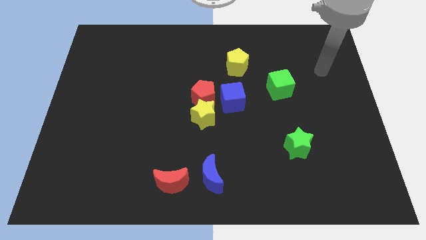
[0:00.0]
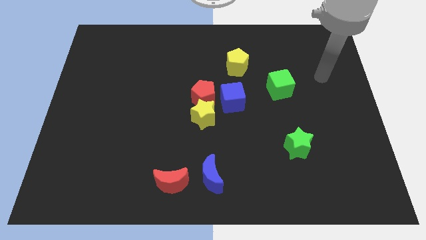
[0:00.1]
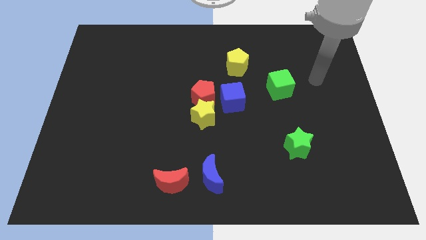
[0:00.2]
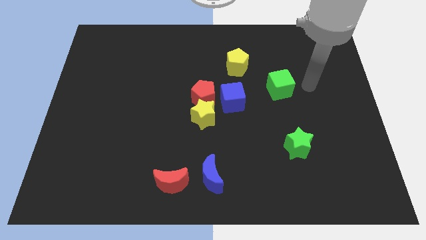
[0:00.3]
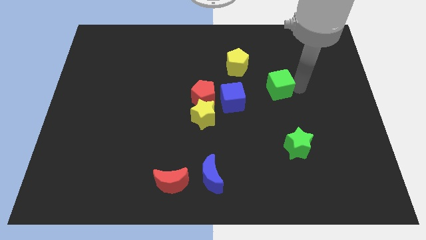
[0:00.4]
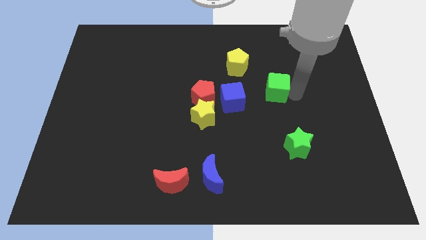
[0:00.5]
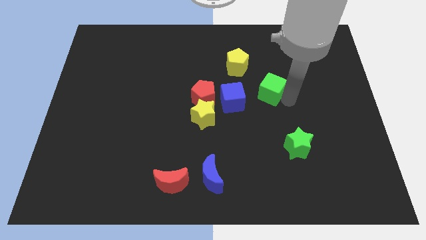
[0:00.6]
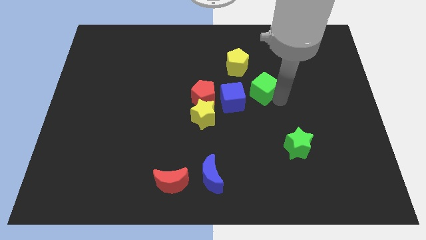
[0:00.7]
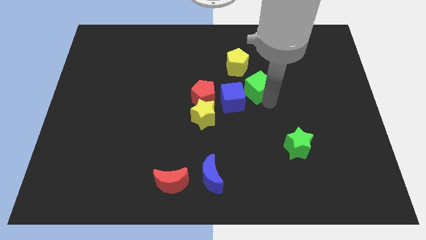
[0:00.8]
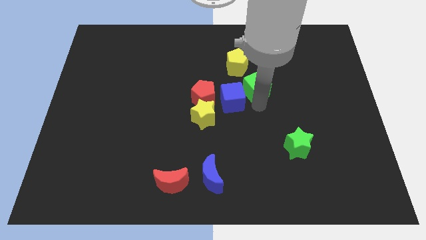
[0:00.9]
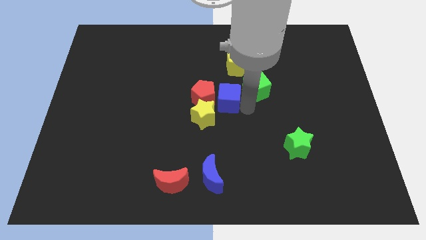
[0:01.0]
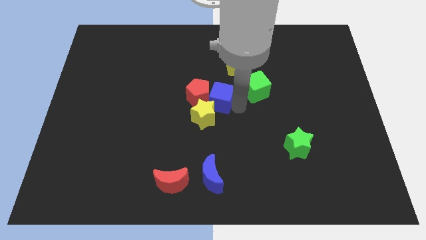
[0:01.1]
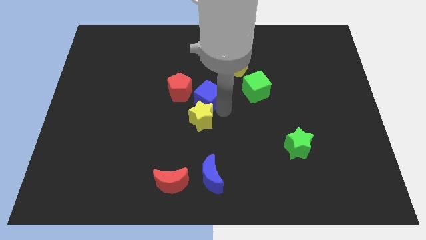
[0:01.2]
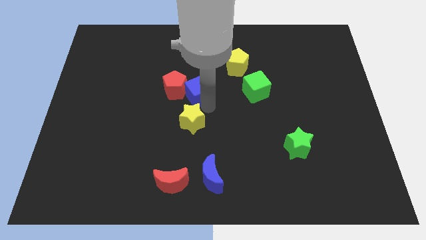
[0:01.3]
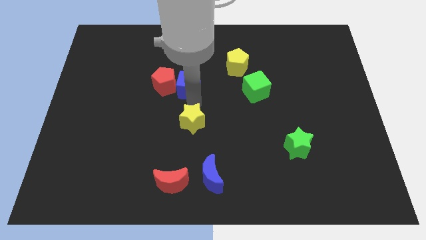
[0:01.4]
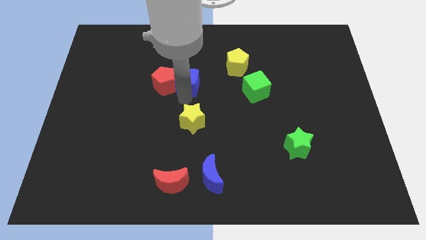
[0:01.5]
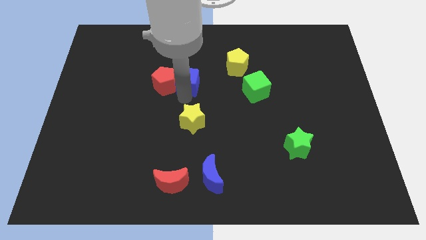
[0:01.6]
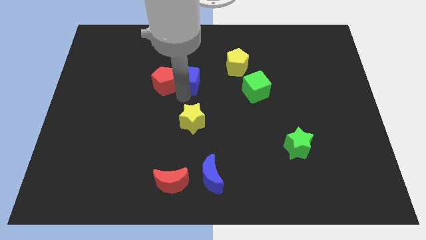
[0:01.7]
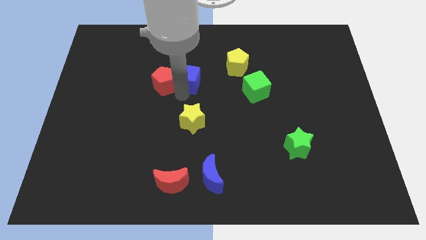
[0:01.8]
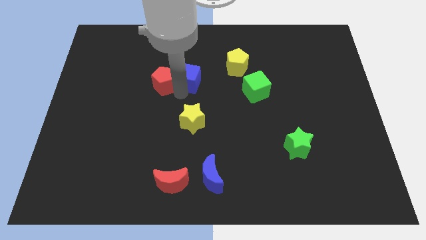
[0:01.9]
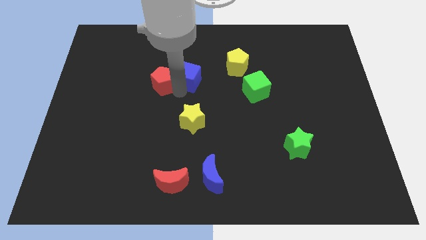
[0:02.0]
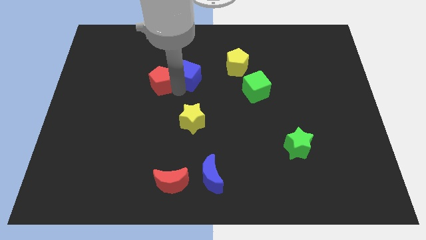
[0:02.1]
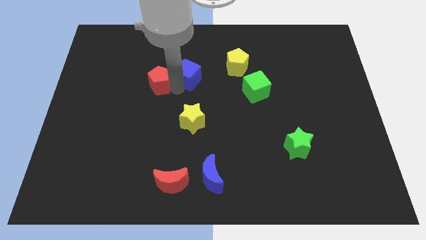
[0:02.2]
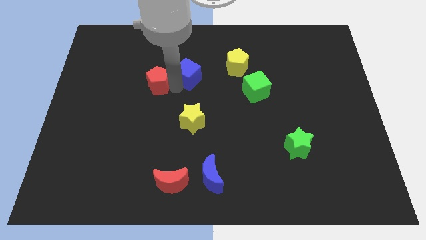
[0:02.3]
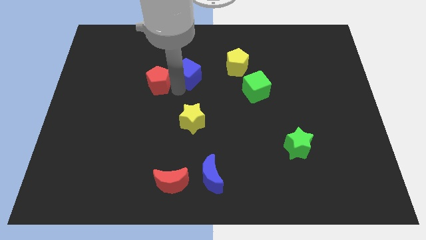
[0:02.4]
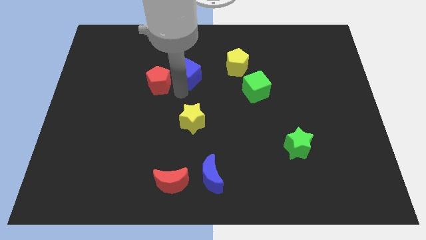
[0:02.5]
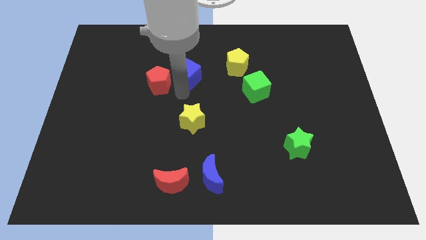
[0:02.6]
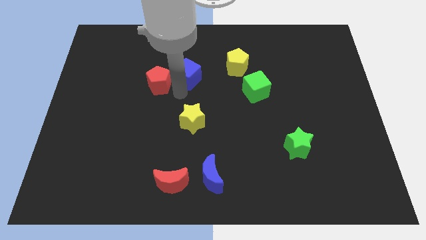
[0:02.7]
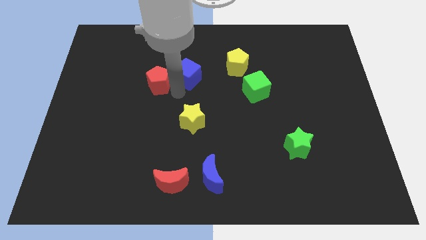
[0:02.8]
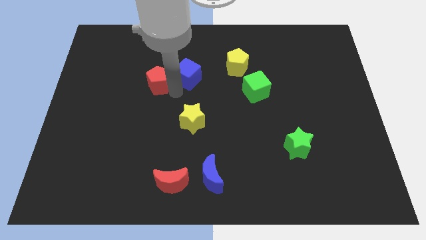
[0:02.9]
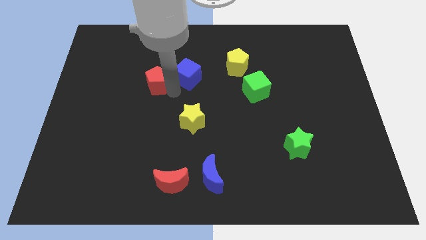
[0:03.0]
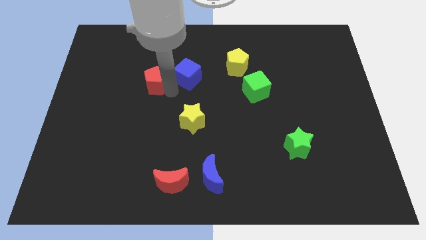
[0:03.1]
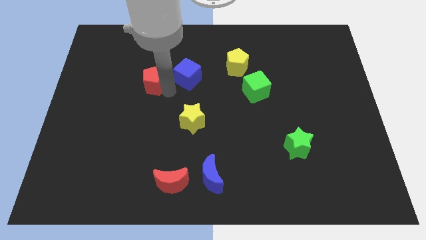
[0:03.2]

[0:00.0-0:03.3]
move the red pentagon away from the yellow star and blue cube

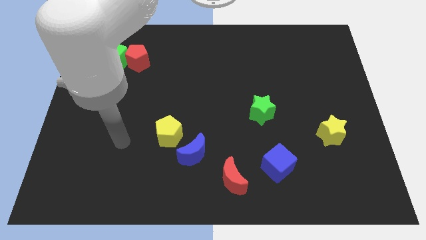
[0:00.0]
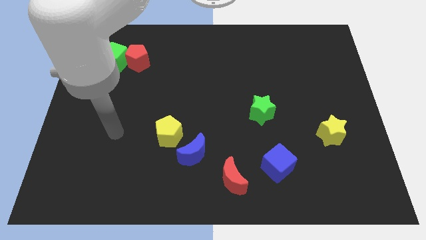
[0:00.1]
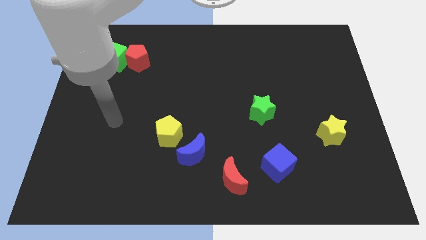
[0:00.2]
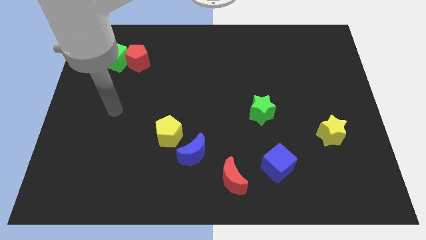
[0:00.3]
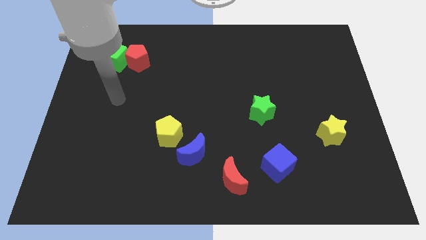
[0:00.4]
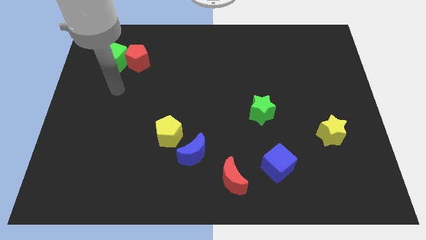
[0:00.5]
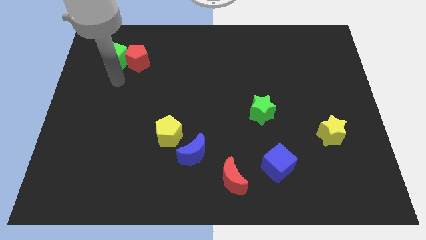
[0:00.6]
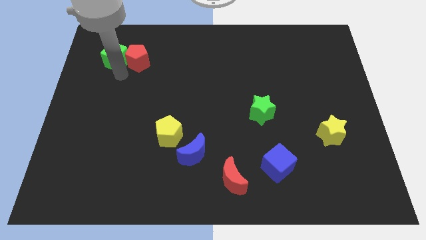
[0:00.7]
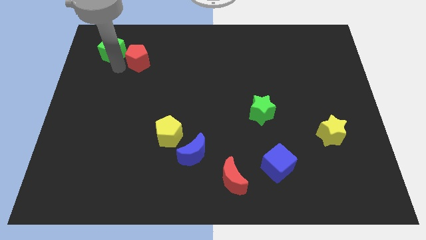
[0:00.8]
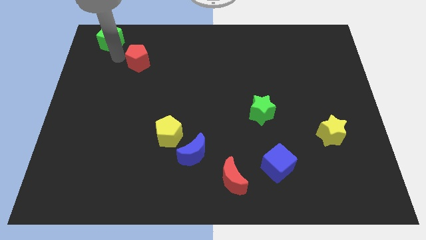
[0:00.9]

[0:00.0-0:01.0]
pull the red pentagon apart from the green cube

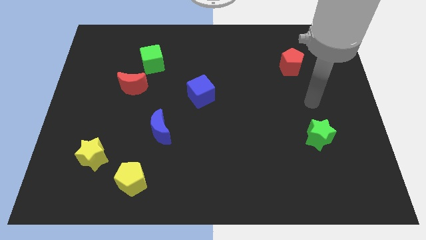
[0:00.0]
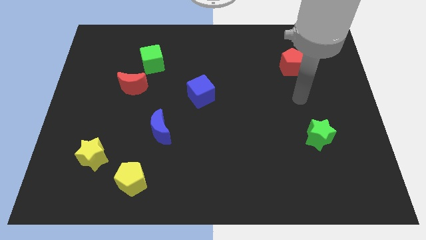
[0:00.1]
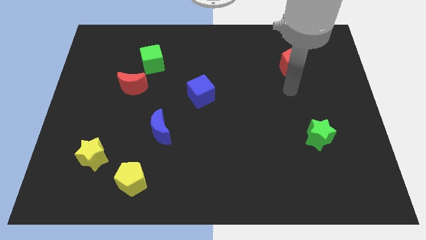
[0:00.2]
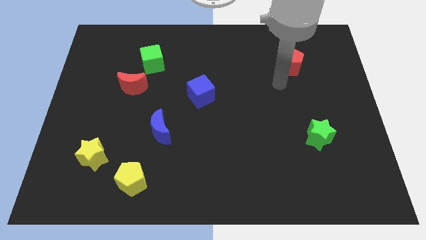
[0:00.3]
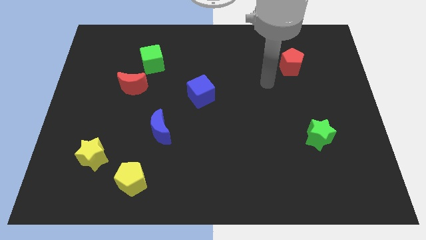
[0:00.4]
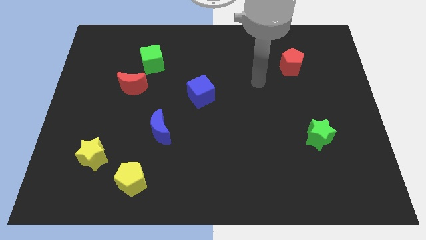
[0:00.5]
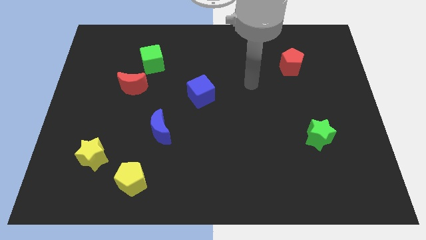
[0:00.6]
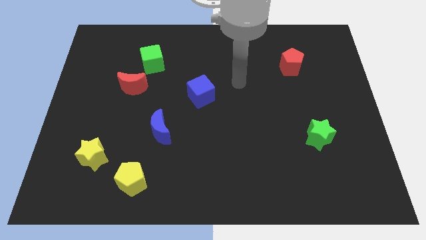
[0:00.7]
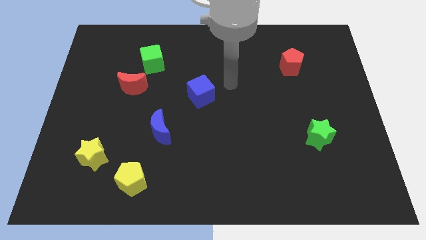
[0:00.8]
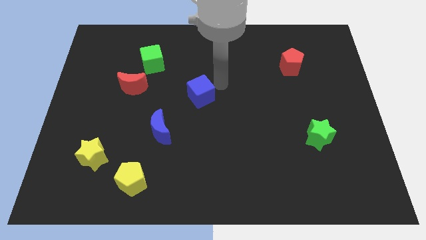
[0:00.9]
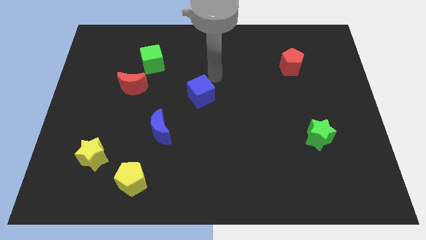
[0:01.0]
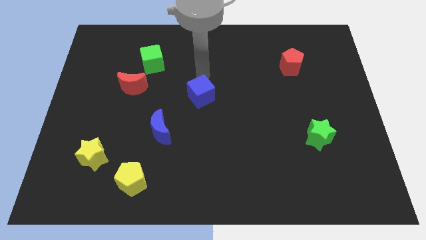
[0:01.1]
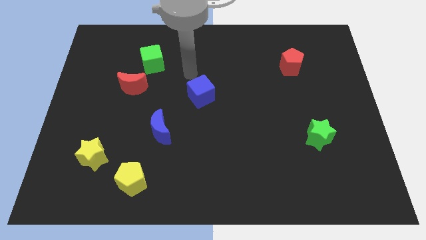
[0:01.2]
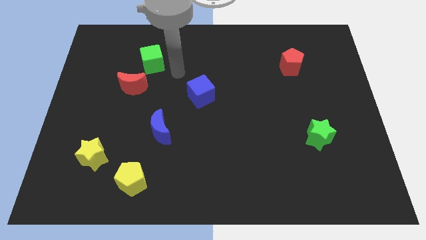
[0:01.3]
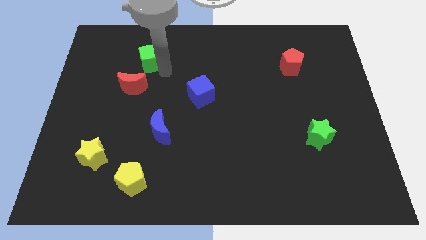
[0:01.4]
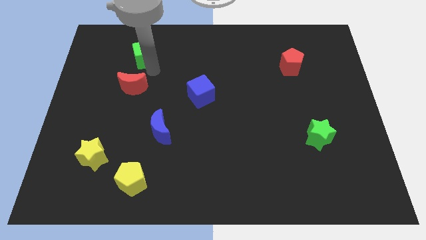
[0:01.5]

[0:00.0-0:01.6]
move the red moon away from the green cube

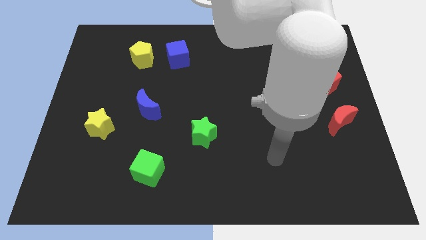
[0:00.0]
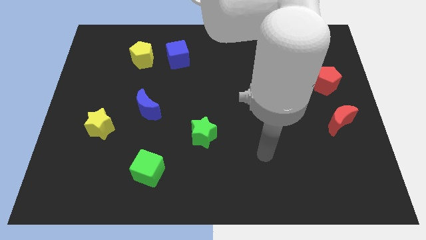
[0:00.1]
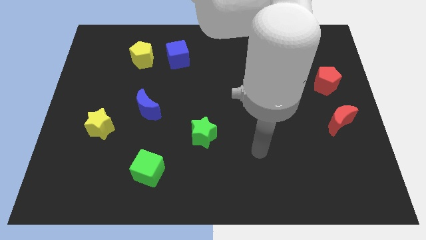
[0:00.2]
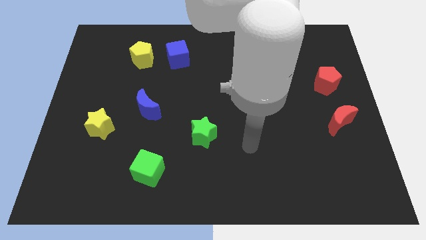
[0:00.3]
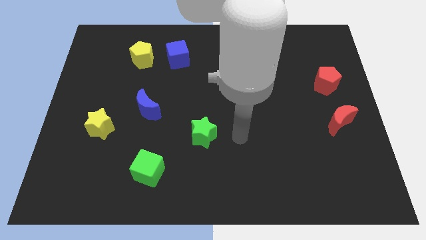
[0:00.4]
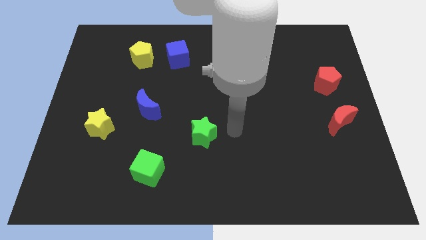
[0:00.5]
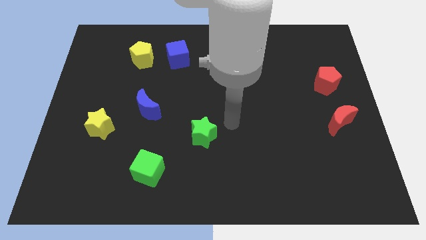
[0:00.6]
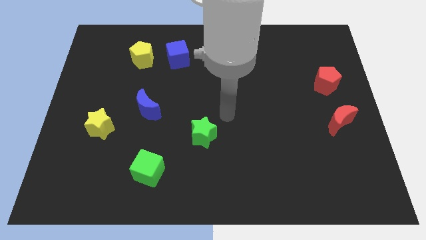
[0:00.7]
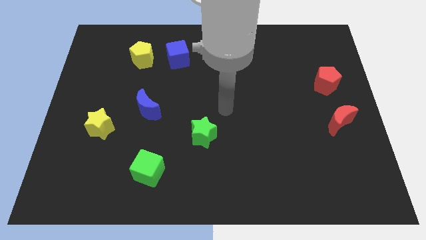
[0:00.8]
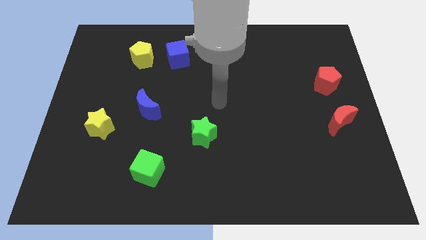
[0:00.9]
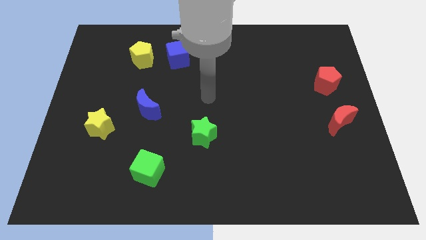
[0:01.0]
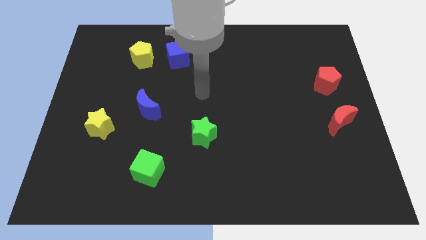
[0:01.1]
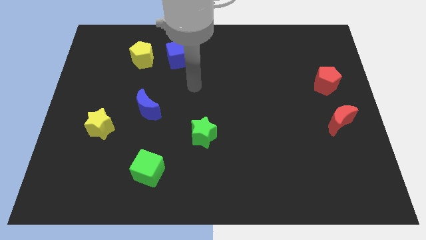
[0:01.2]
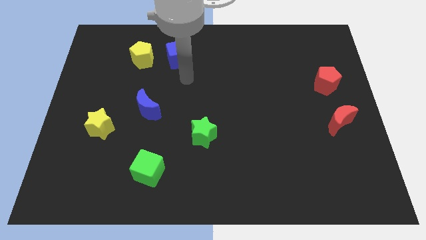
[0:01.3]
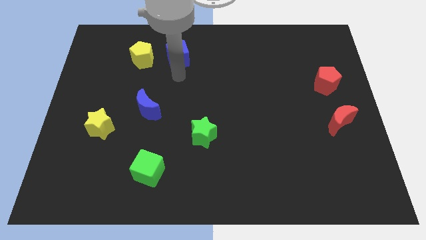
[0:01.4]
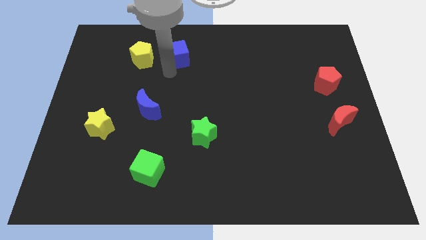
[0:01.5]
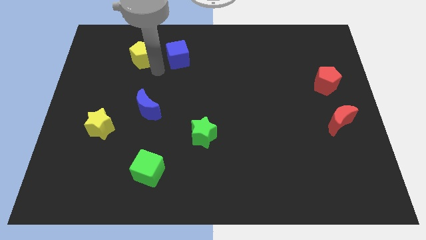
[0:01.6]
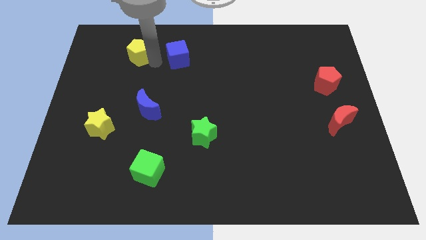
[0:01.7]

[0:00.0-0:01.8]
move the blue cube away from the yellow pentagon

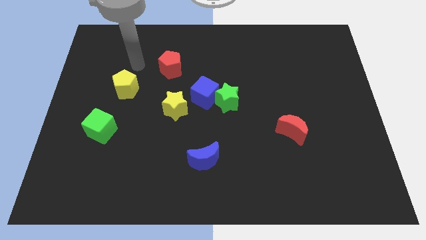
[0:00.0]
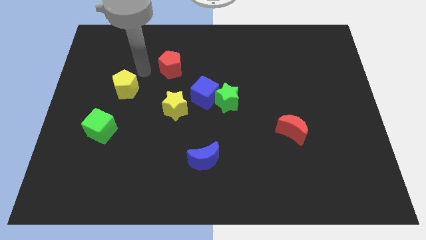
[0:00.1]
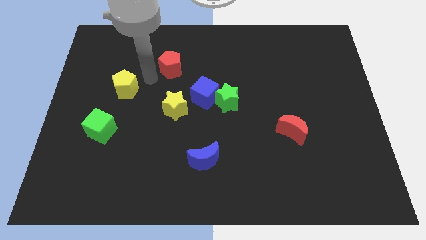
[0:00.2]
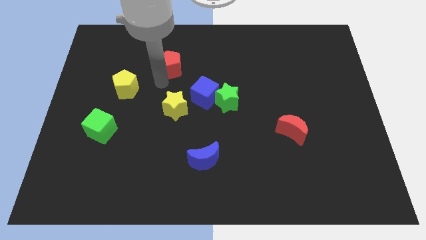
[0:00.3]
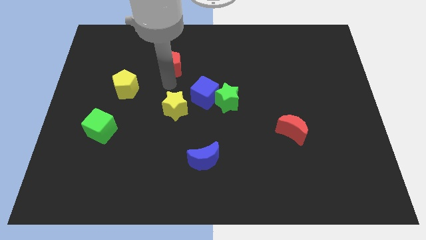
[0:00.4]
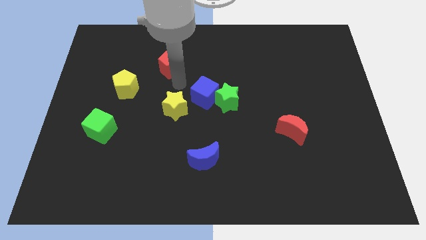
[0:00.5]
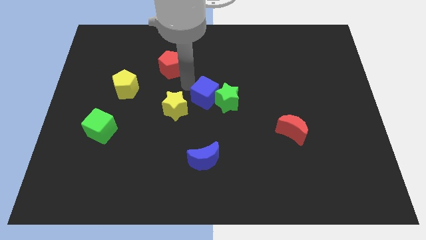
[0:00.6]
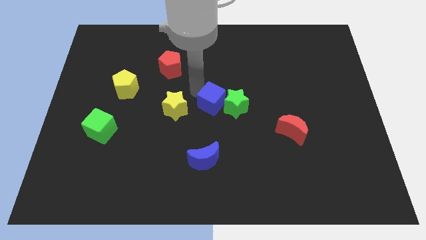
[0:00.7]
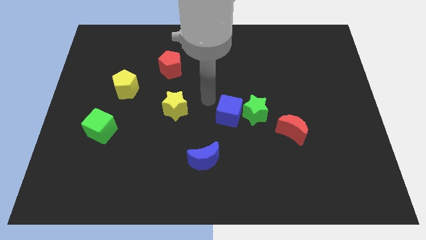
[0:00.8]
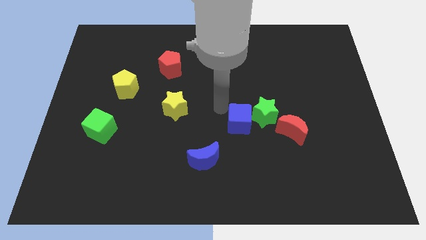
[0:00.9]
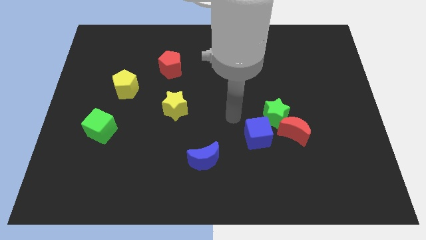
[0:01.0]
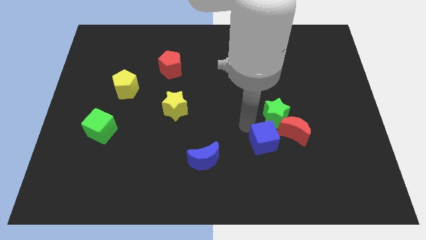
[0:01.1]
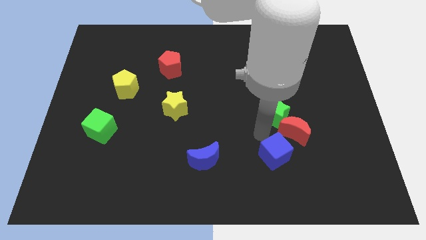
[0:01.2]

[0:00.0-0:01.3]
separate the green star from the blue cube

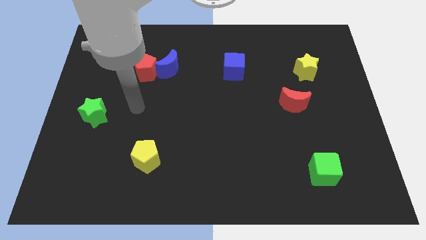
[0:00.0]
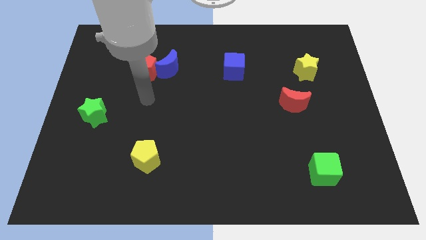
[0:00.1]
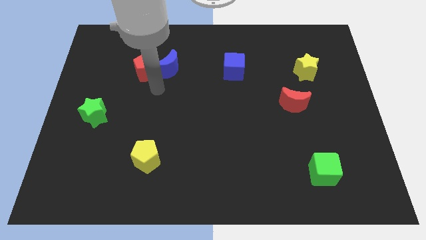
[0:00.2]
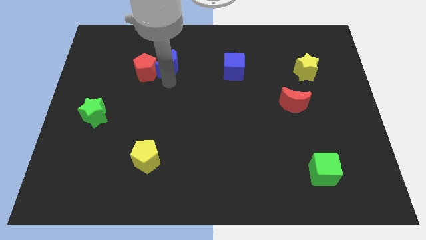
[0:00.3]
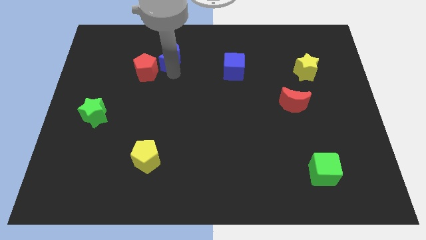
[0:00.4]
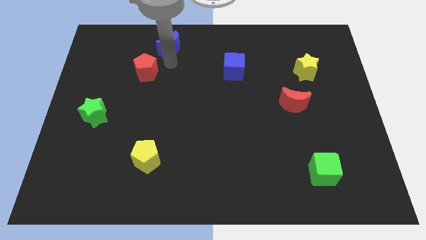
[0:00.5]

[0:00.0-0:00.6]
pull the red pentagon apart from the blue moon
